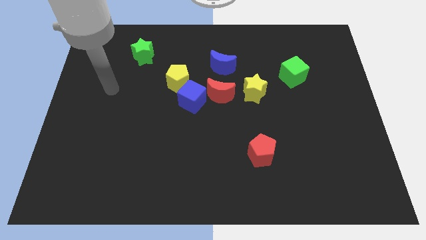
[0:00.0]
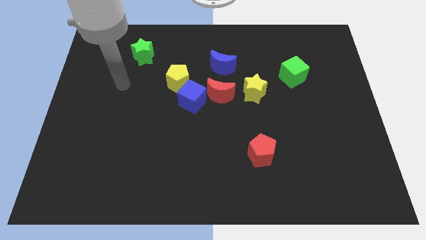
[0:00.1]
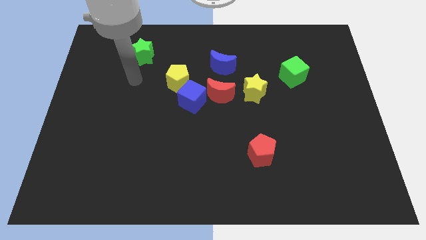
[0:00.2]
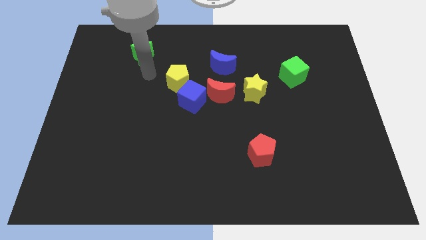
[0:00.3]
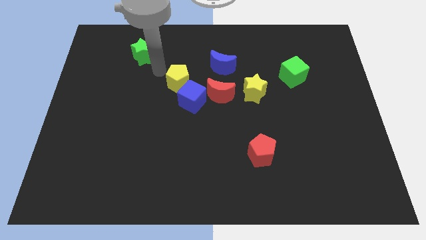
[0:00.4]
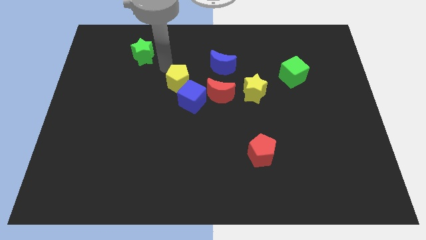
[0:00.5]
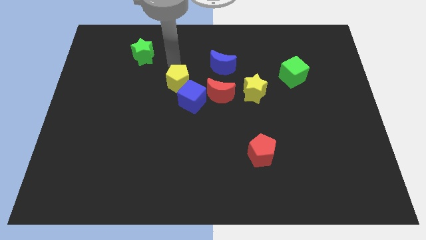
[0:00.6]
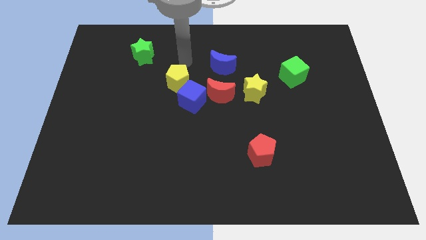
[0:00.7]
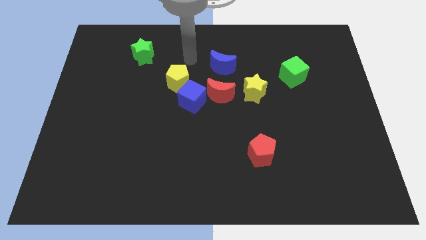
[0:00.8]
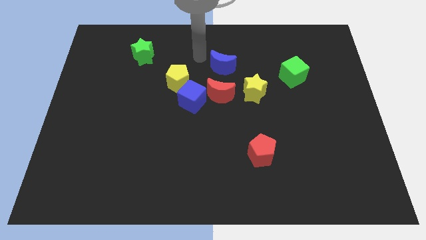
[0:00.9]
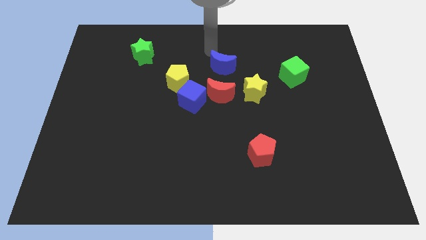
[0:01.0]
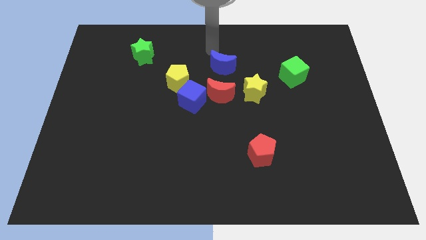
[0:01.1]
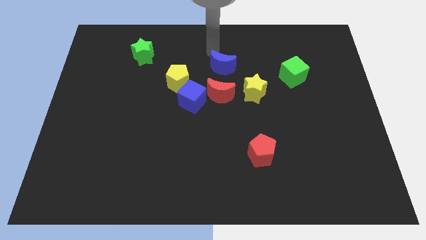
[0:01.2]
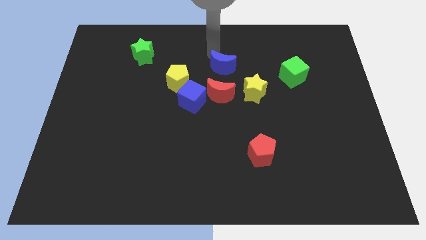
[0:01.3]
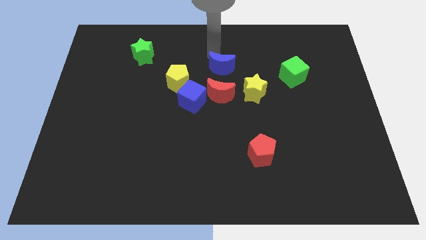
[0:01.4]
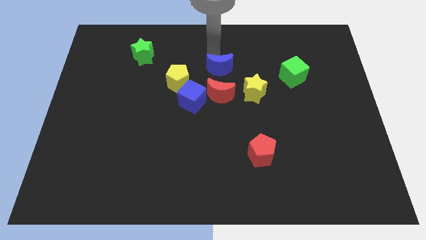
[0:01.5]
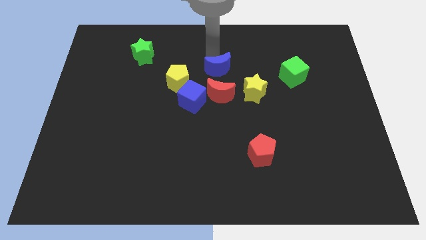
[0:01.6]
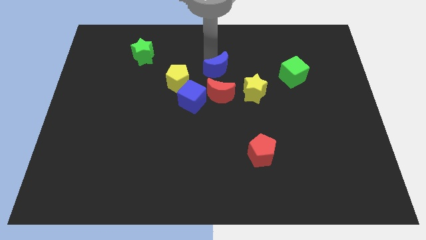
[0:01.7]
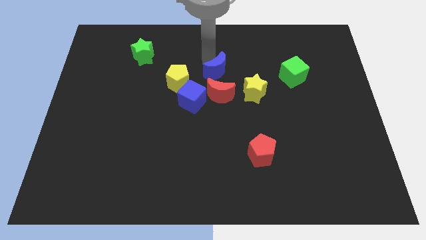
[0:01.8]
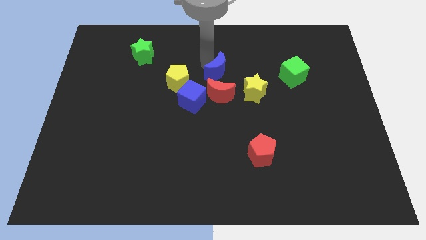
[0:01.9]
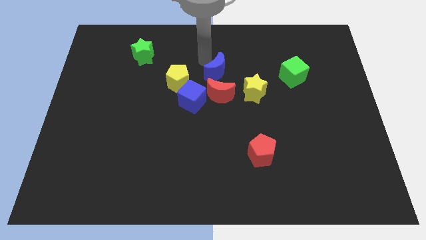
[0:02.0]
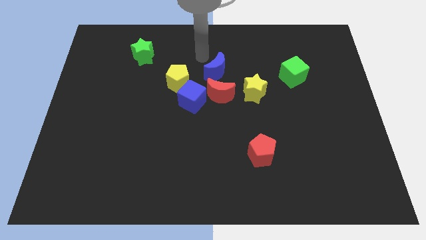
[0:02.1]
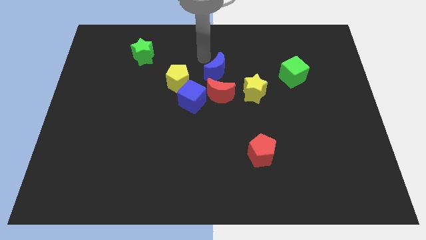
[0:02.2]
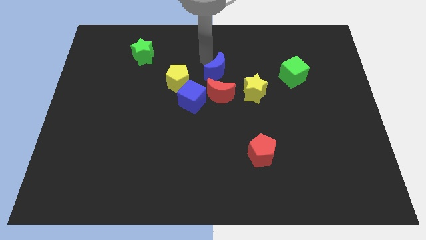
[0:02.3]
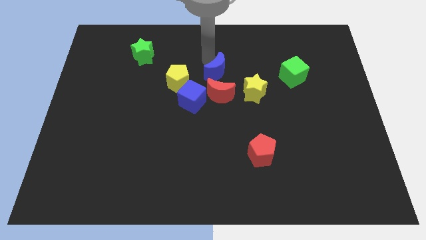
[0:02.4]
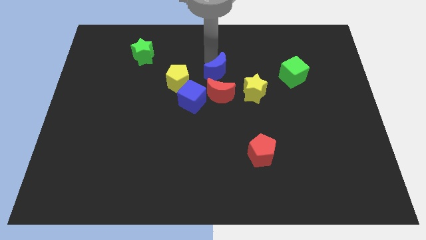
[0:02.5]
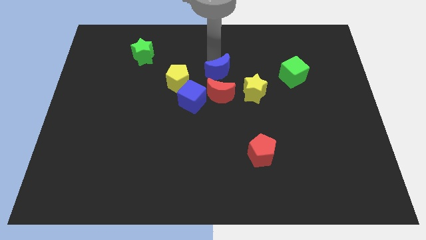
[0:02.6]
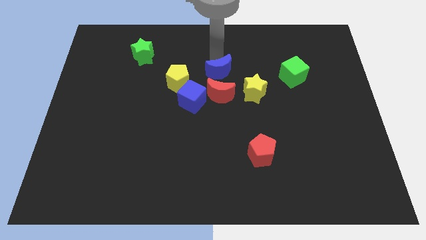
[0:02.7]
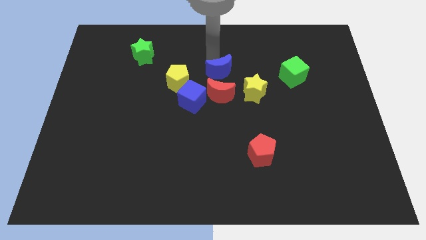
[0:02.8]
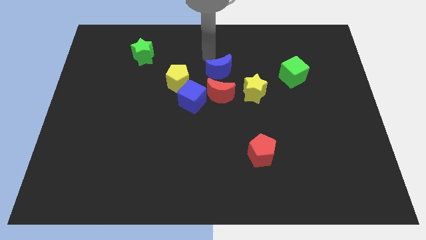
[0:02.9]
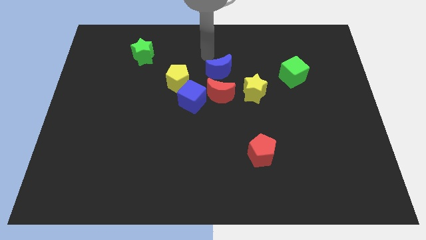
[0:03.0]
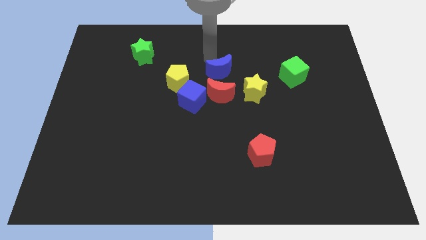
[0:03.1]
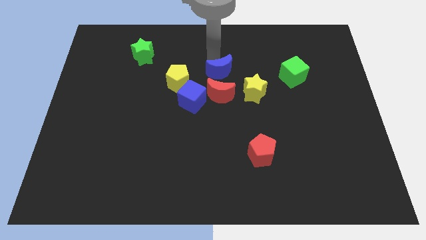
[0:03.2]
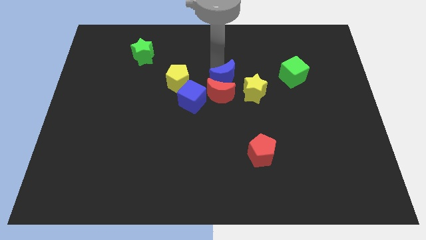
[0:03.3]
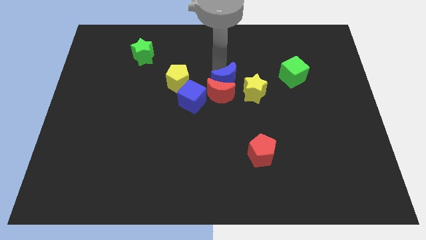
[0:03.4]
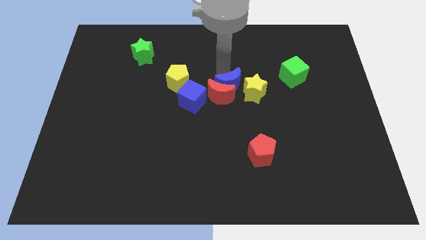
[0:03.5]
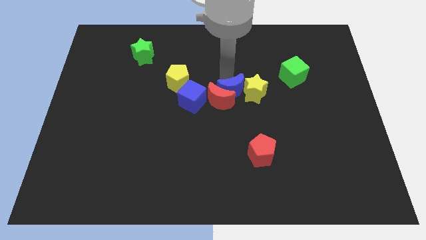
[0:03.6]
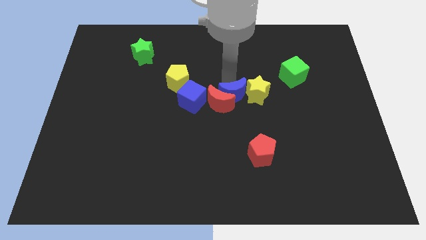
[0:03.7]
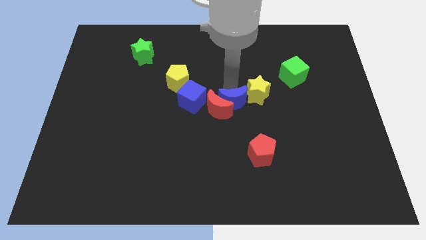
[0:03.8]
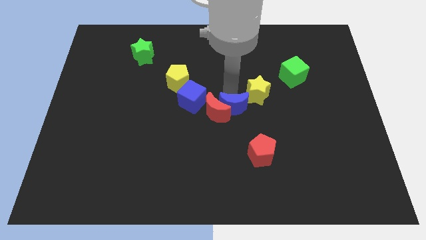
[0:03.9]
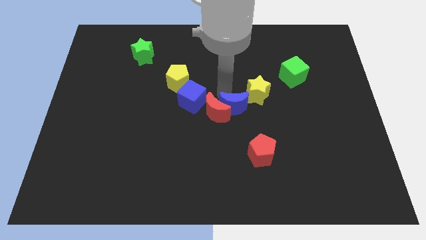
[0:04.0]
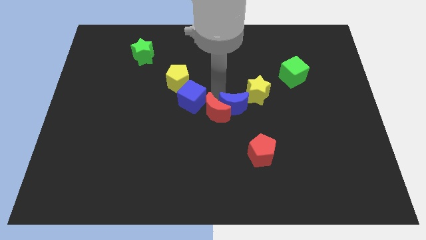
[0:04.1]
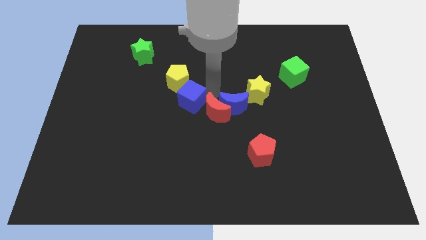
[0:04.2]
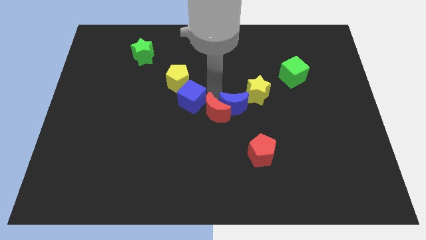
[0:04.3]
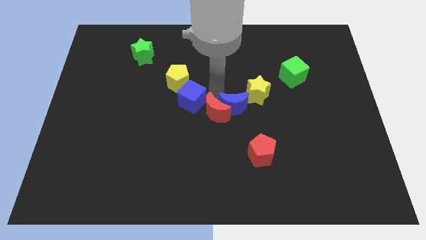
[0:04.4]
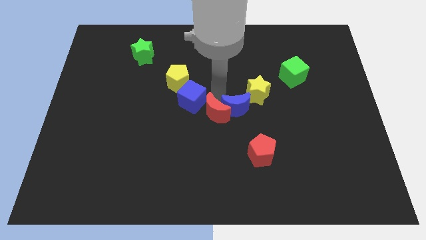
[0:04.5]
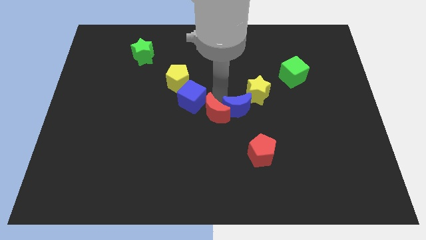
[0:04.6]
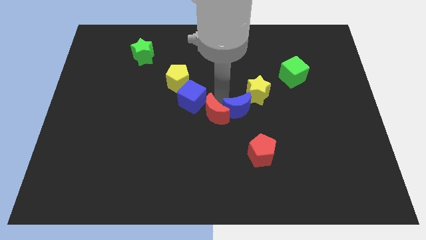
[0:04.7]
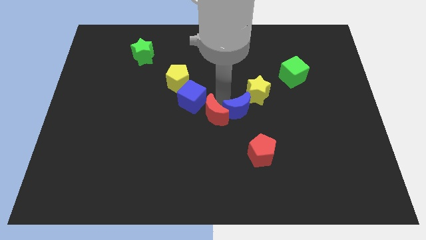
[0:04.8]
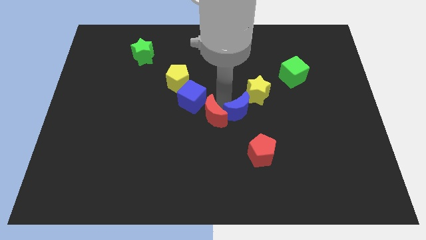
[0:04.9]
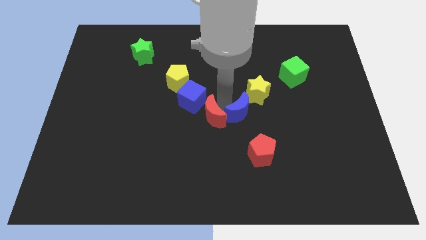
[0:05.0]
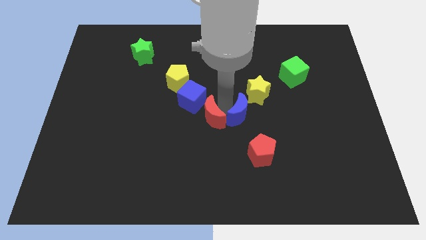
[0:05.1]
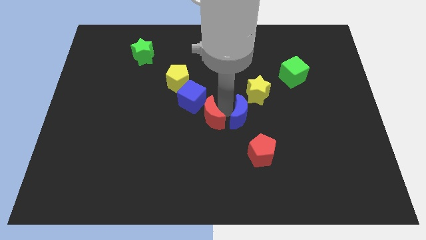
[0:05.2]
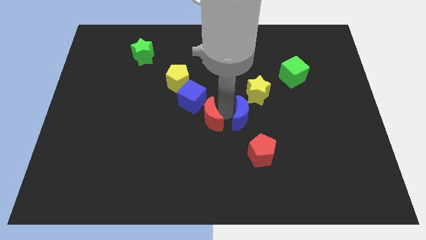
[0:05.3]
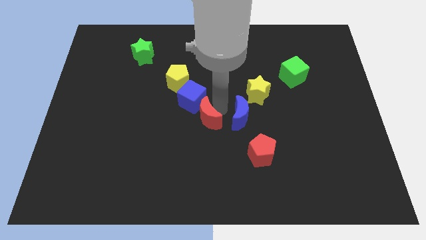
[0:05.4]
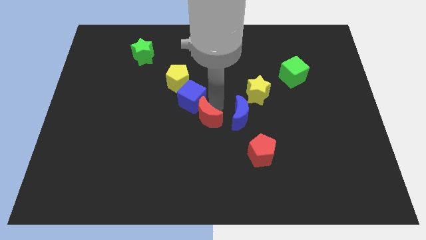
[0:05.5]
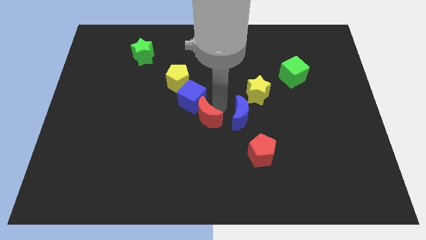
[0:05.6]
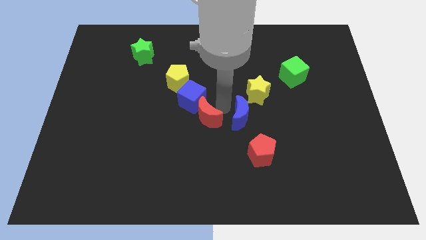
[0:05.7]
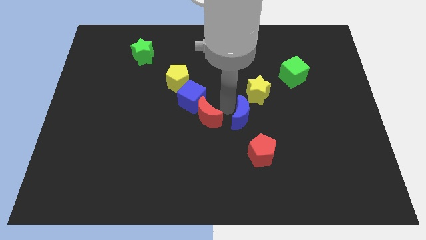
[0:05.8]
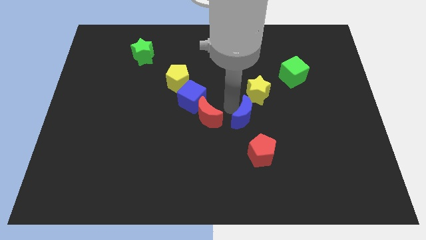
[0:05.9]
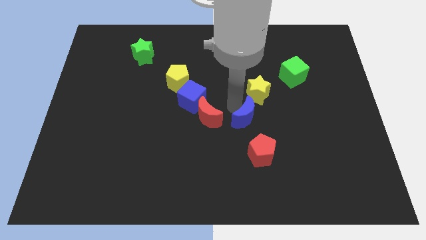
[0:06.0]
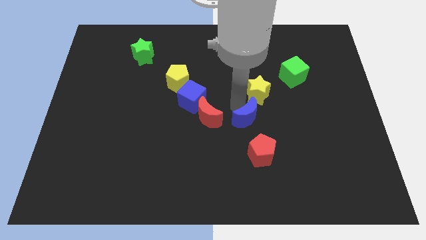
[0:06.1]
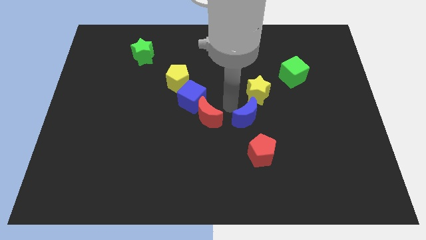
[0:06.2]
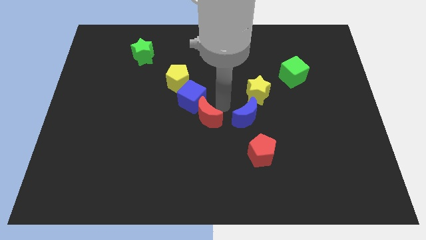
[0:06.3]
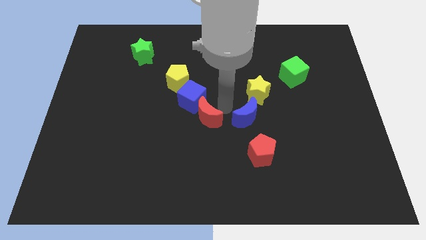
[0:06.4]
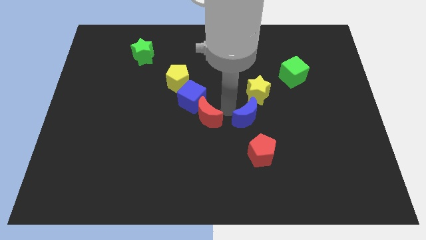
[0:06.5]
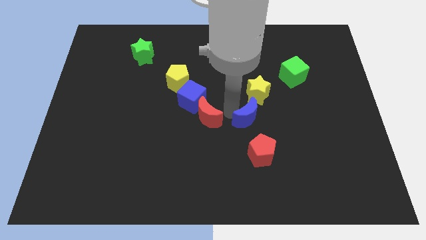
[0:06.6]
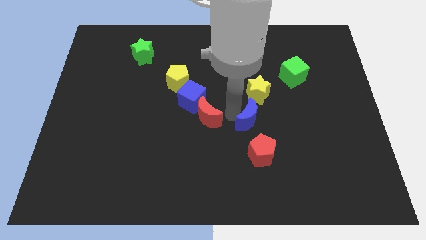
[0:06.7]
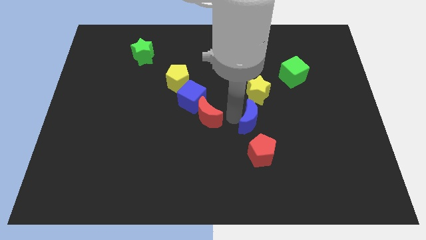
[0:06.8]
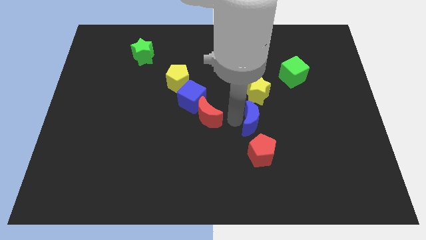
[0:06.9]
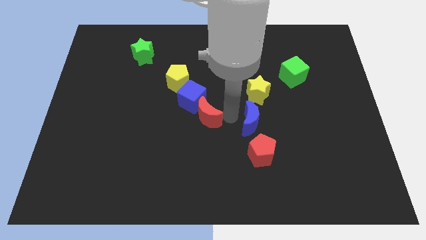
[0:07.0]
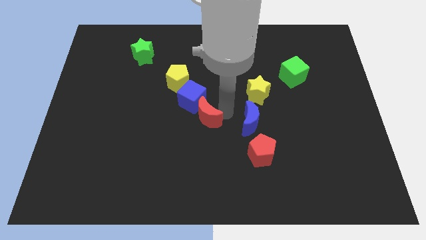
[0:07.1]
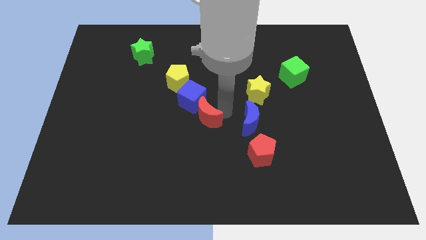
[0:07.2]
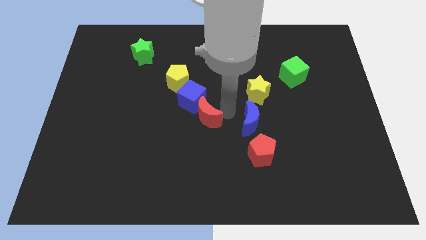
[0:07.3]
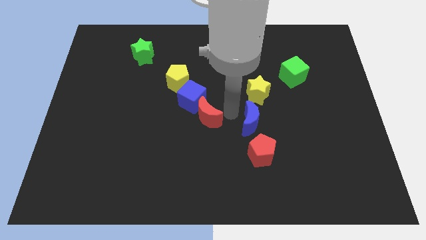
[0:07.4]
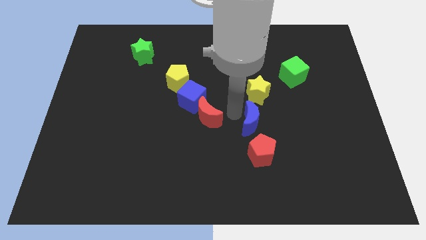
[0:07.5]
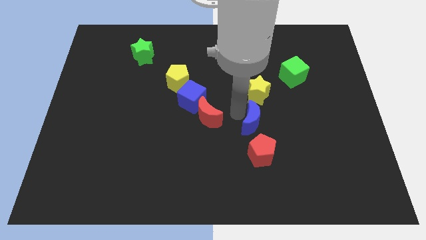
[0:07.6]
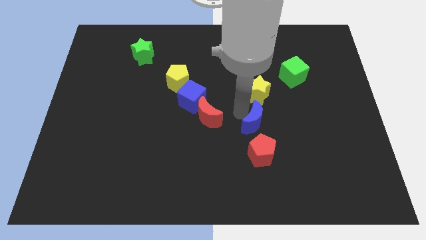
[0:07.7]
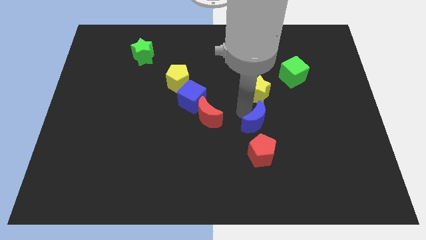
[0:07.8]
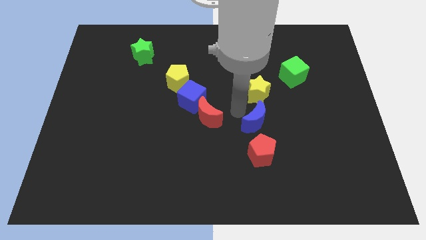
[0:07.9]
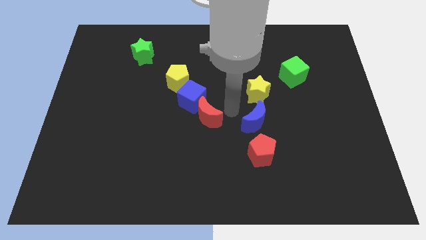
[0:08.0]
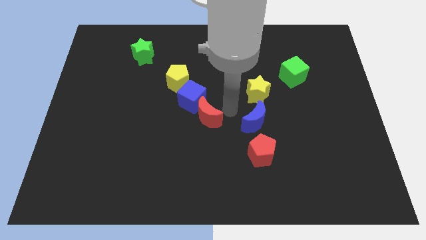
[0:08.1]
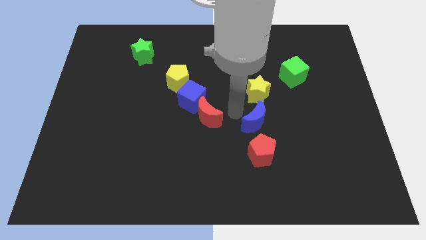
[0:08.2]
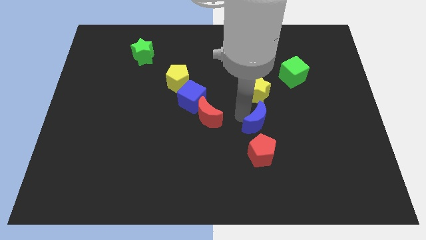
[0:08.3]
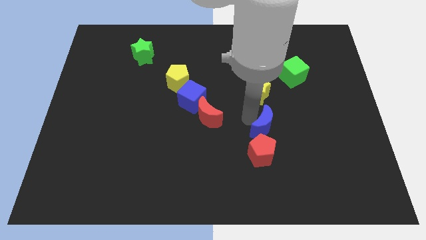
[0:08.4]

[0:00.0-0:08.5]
push the blue moon diagonally up and to the right of the red pentagon
